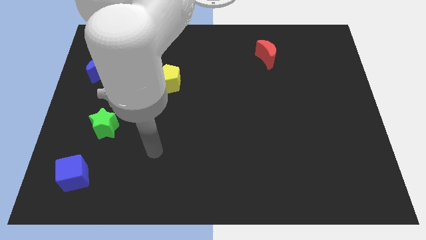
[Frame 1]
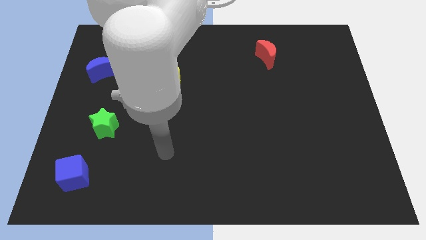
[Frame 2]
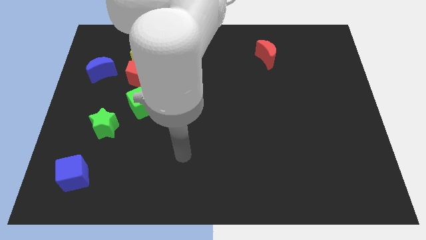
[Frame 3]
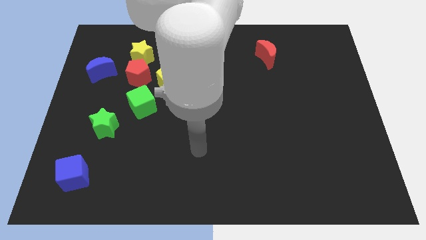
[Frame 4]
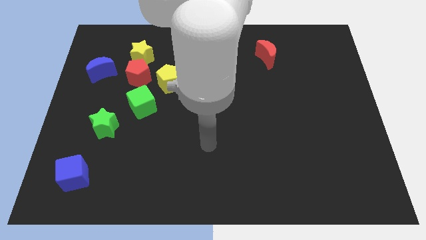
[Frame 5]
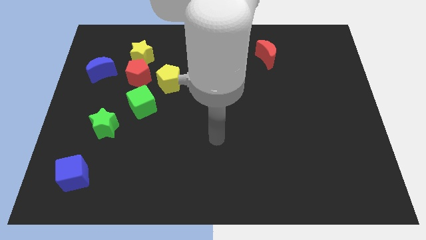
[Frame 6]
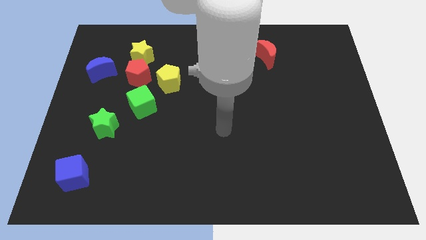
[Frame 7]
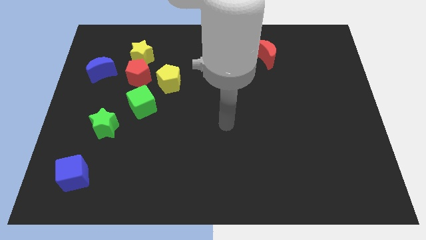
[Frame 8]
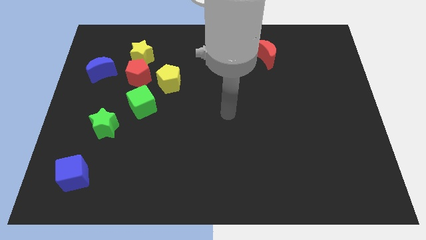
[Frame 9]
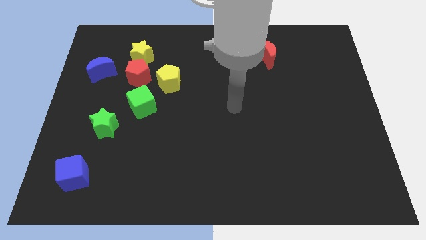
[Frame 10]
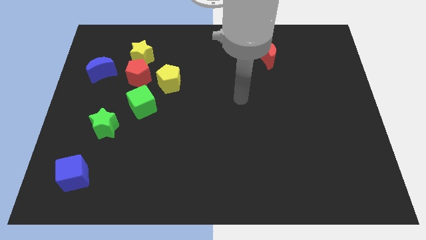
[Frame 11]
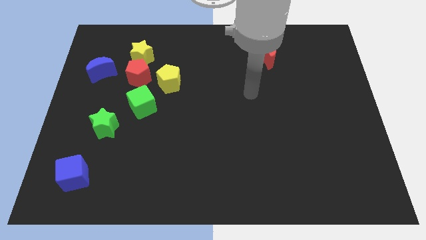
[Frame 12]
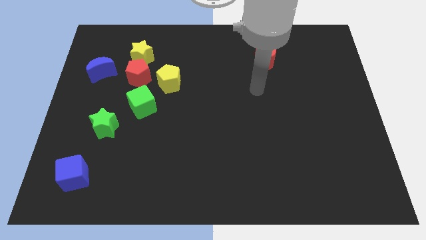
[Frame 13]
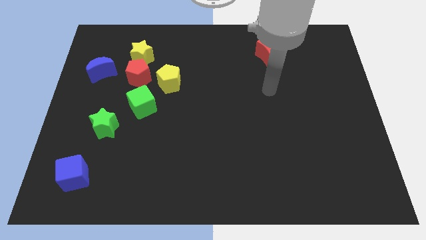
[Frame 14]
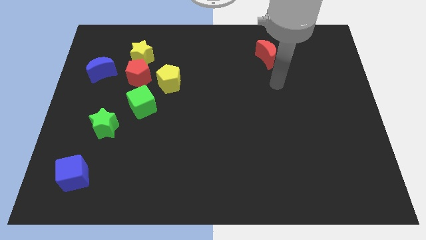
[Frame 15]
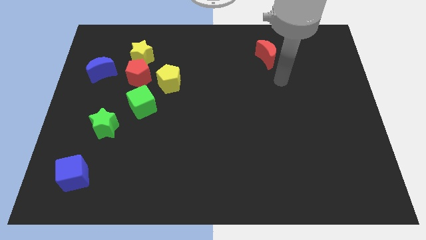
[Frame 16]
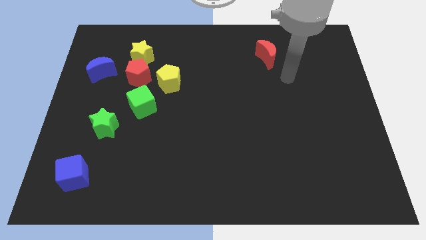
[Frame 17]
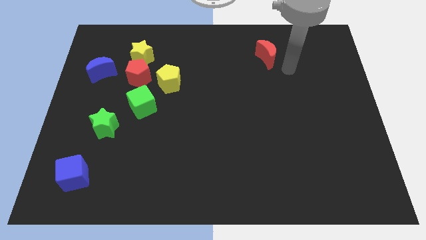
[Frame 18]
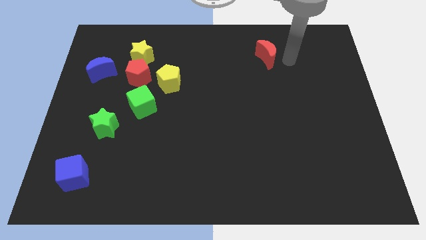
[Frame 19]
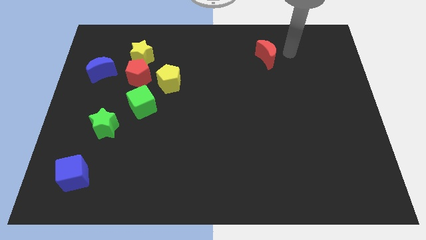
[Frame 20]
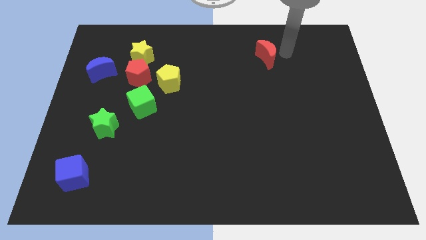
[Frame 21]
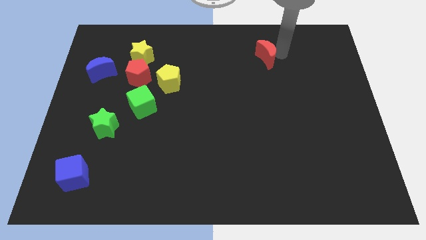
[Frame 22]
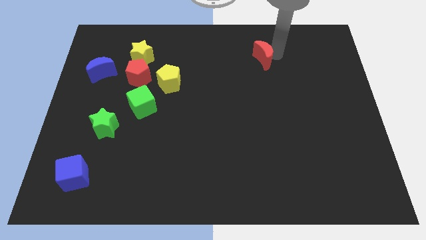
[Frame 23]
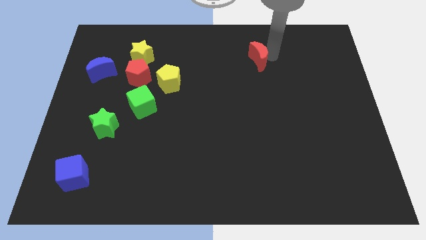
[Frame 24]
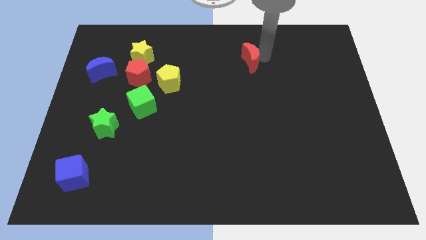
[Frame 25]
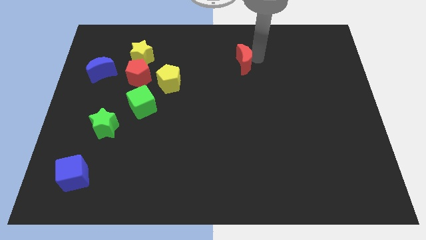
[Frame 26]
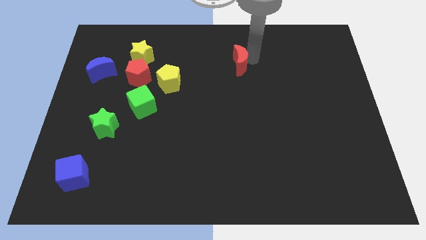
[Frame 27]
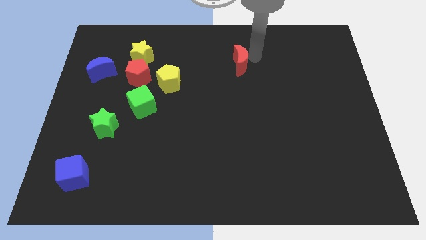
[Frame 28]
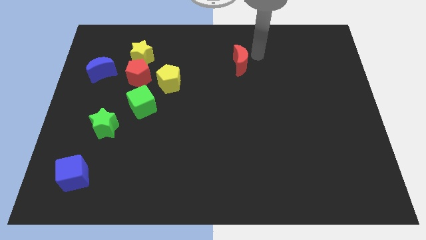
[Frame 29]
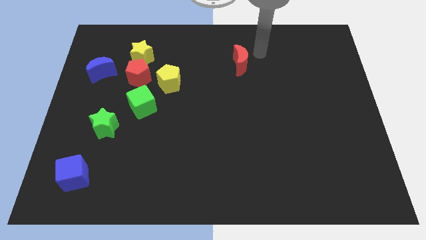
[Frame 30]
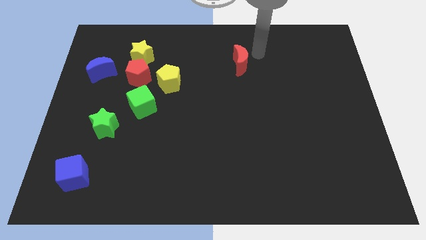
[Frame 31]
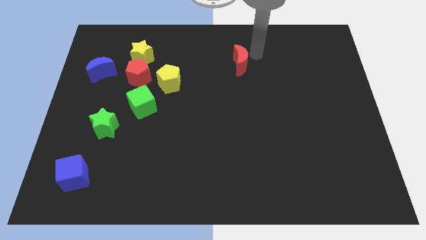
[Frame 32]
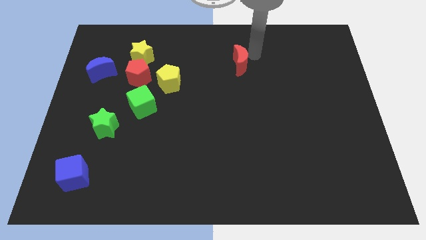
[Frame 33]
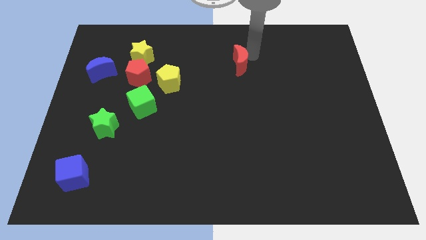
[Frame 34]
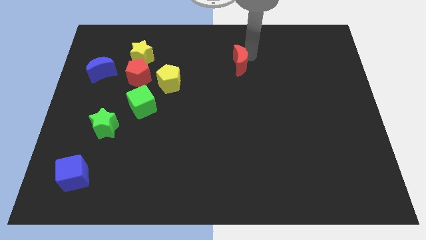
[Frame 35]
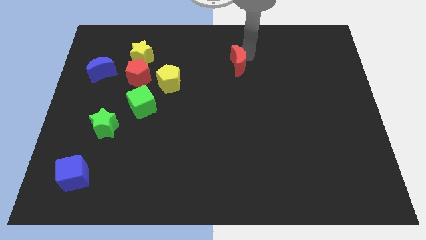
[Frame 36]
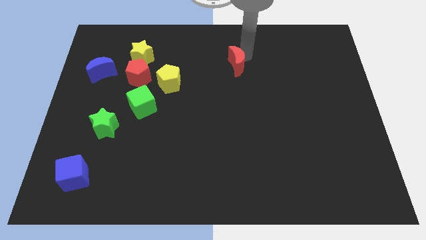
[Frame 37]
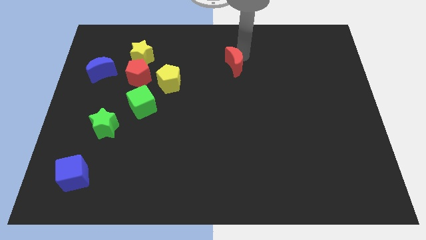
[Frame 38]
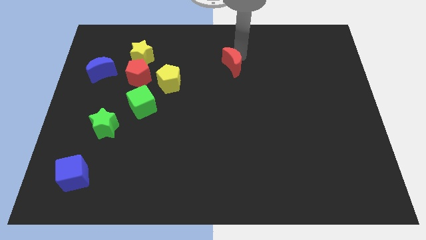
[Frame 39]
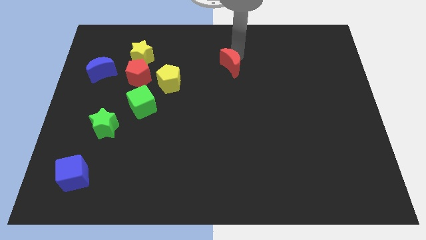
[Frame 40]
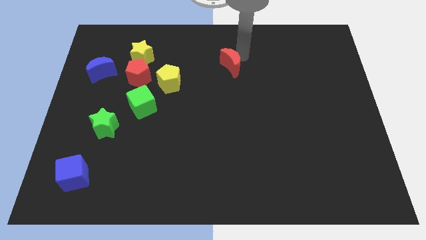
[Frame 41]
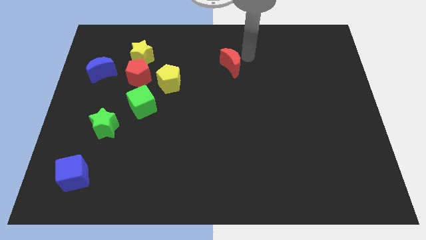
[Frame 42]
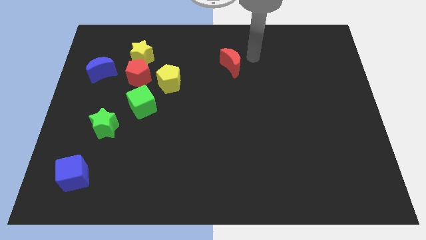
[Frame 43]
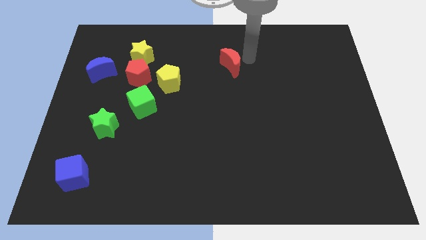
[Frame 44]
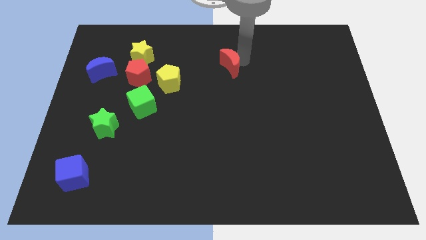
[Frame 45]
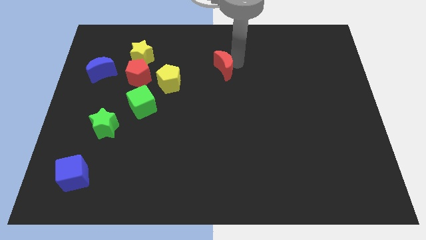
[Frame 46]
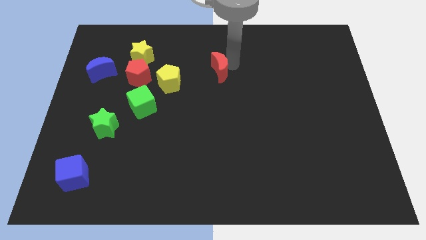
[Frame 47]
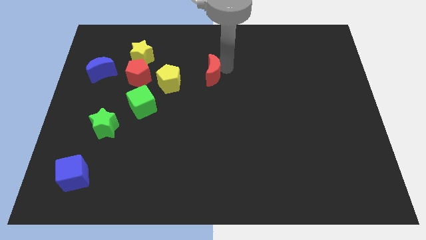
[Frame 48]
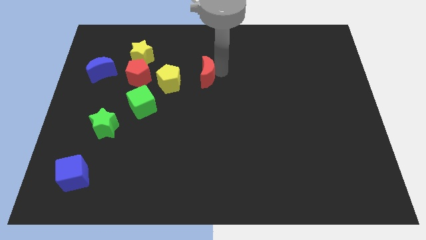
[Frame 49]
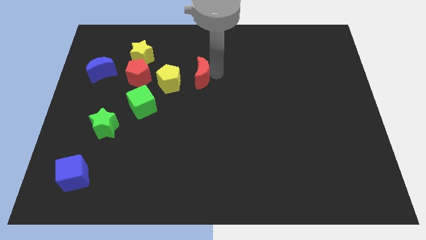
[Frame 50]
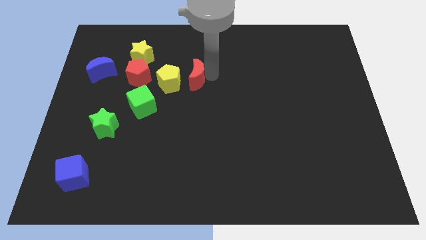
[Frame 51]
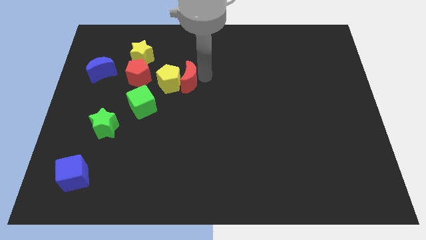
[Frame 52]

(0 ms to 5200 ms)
slide the red moon towards the yellow pentagon

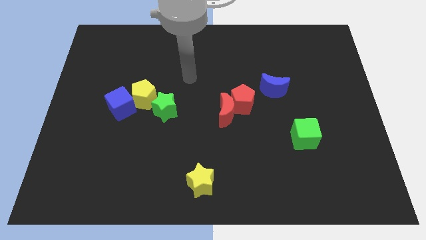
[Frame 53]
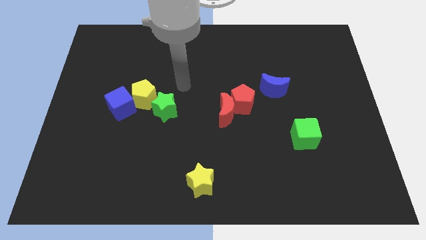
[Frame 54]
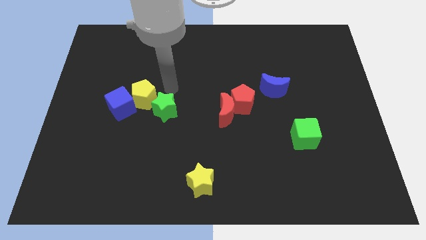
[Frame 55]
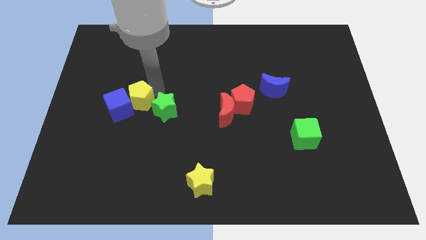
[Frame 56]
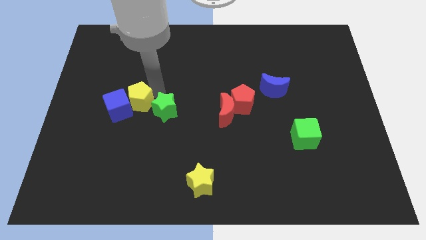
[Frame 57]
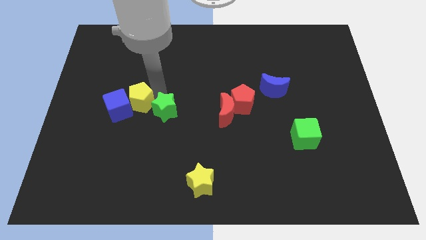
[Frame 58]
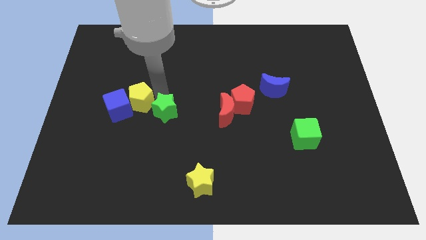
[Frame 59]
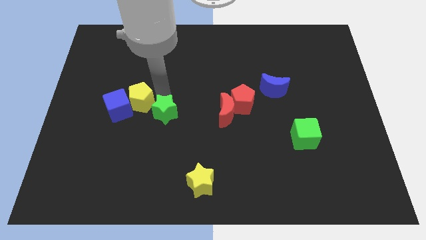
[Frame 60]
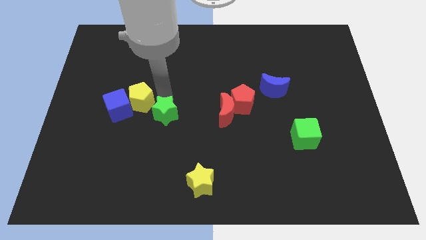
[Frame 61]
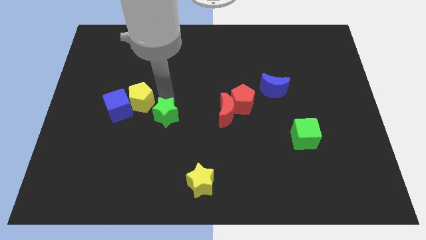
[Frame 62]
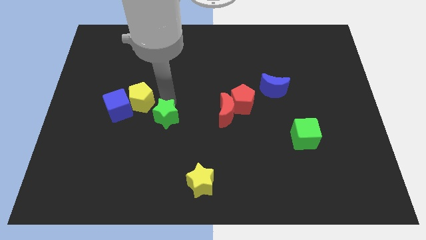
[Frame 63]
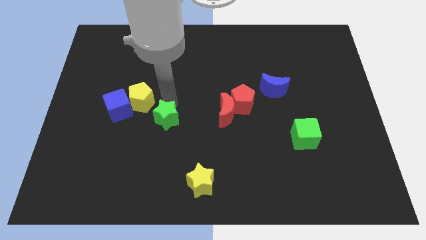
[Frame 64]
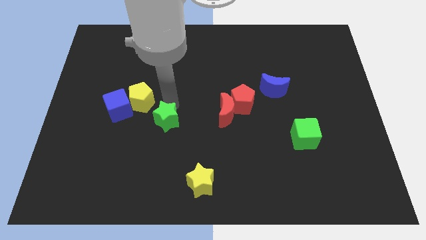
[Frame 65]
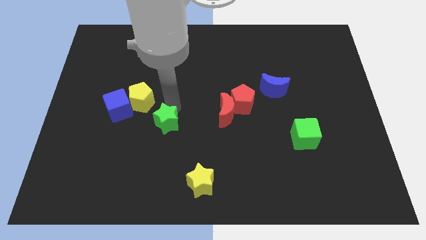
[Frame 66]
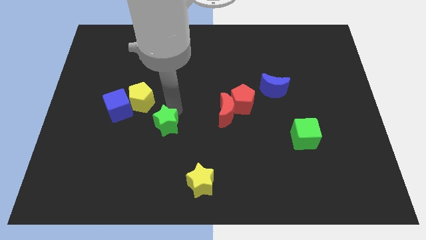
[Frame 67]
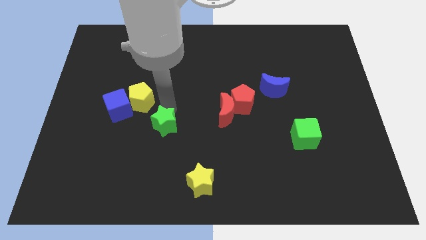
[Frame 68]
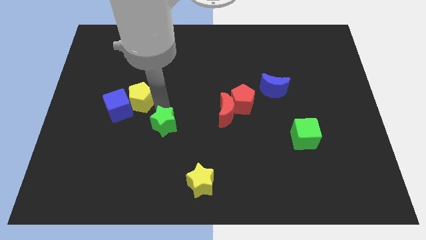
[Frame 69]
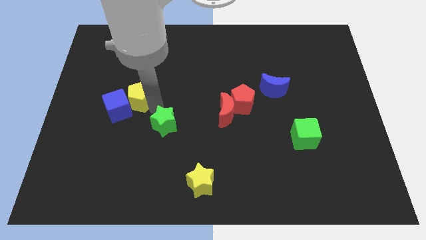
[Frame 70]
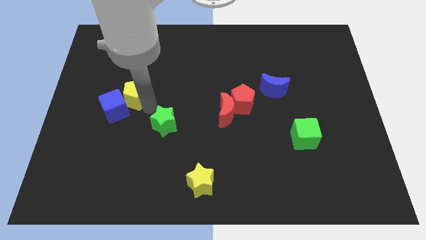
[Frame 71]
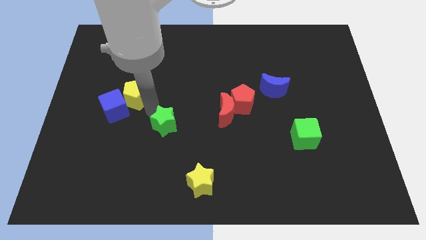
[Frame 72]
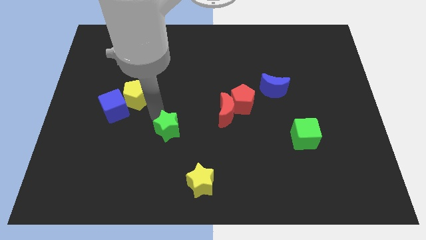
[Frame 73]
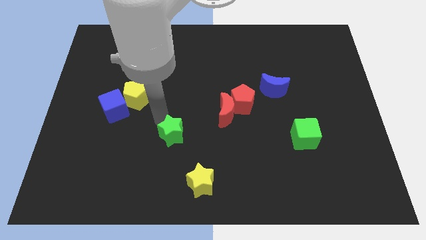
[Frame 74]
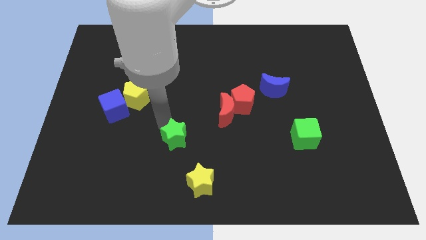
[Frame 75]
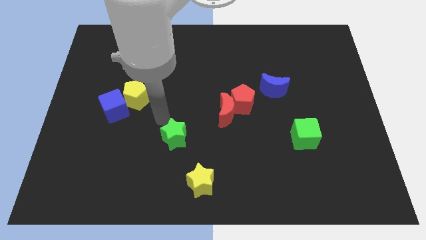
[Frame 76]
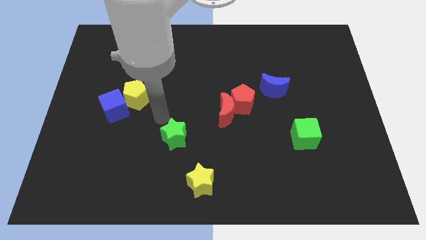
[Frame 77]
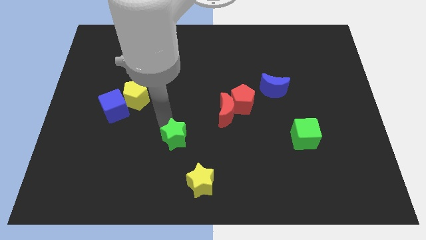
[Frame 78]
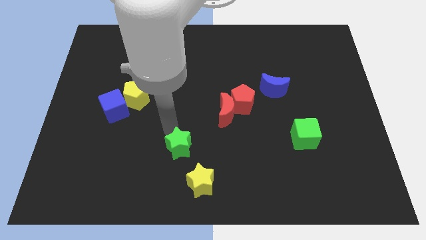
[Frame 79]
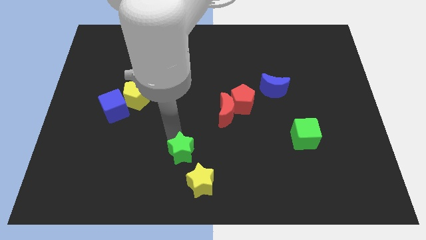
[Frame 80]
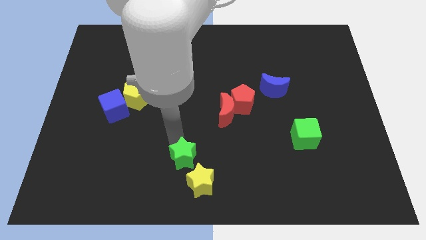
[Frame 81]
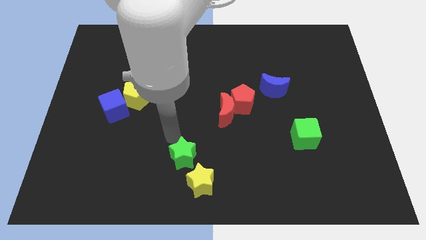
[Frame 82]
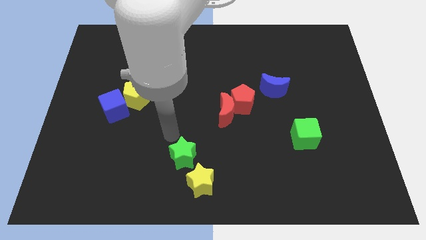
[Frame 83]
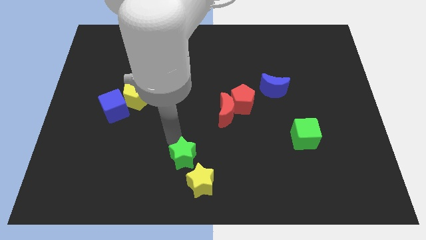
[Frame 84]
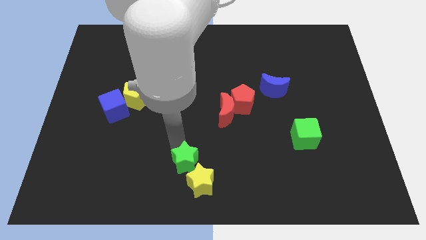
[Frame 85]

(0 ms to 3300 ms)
slide the green star to the yellow star

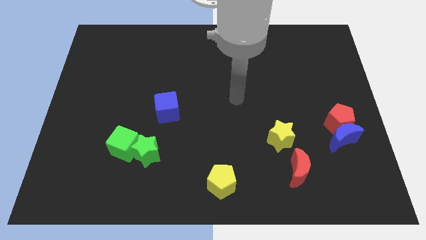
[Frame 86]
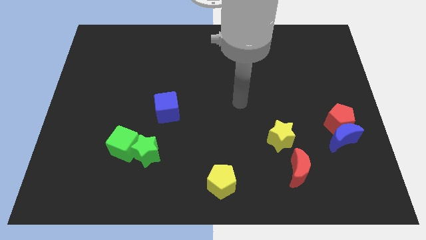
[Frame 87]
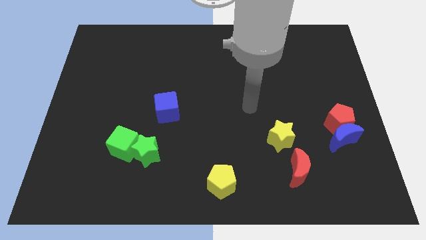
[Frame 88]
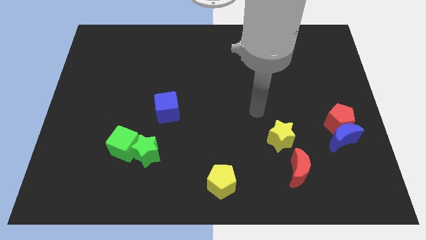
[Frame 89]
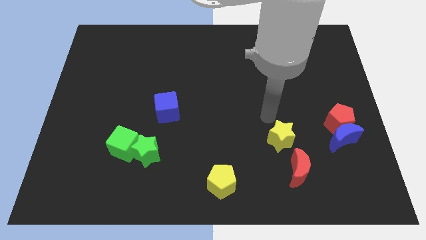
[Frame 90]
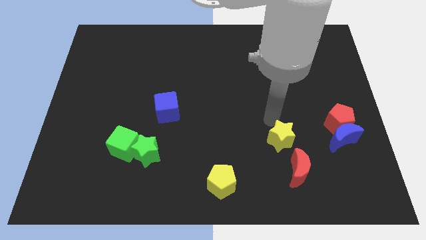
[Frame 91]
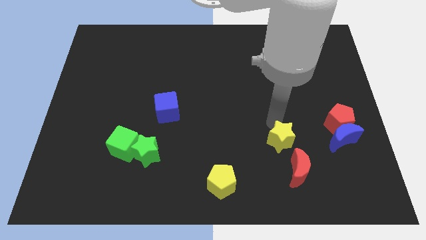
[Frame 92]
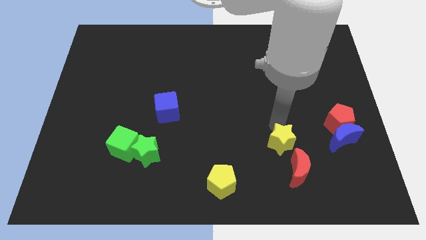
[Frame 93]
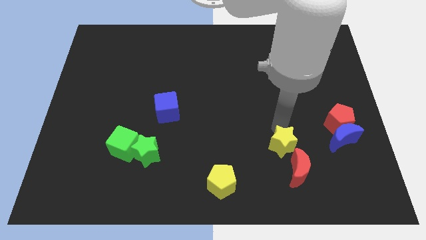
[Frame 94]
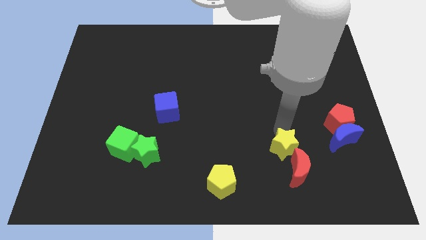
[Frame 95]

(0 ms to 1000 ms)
move the yellow star close to the red moon
